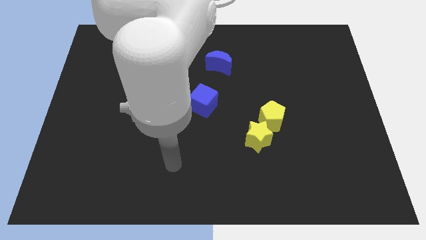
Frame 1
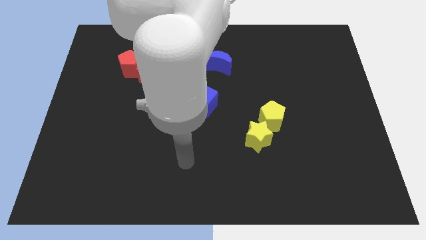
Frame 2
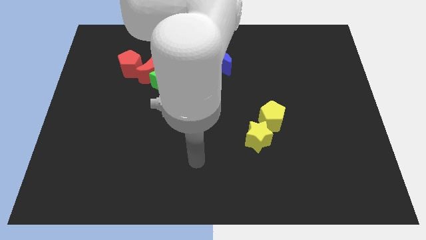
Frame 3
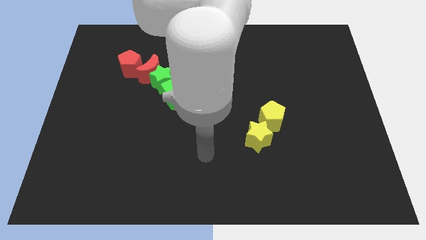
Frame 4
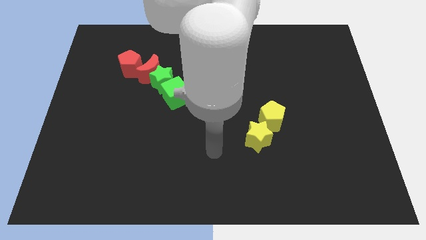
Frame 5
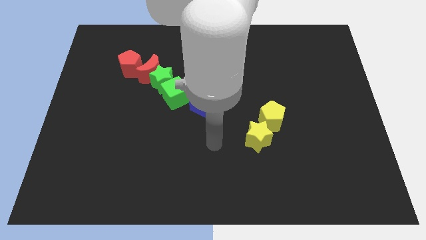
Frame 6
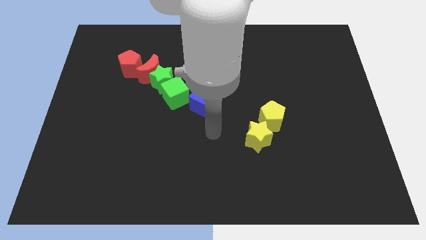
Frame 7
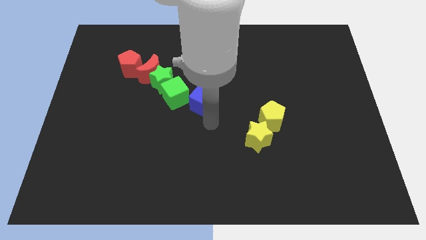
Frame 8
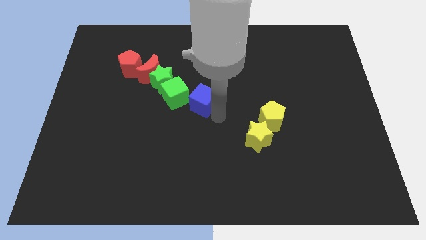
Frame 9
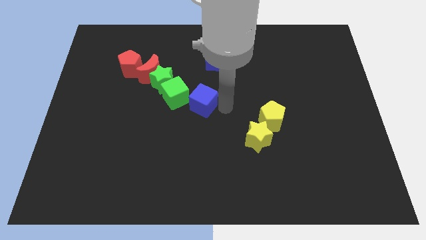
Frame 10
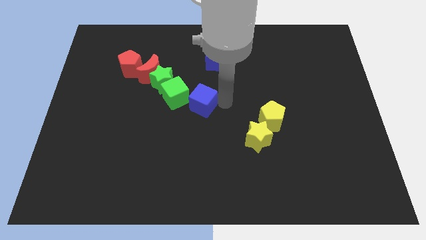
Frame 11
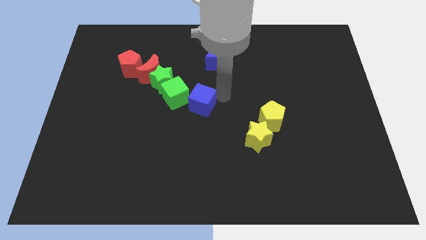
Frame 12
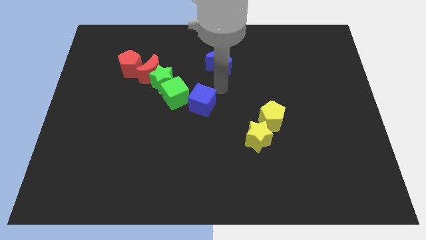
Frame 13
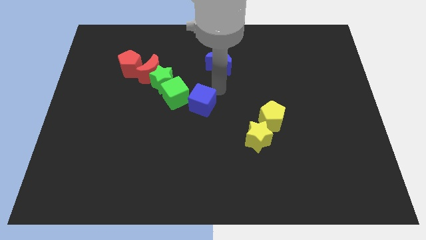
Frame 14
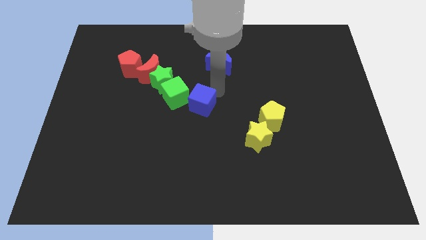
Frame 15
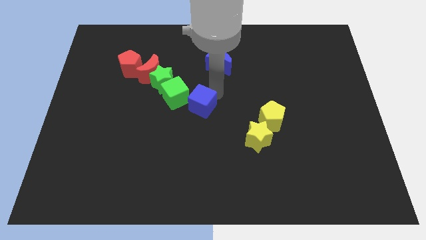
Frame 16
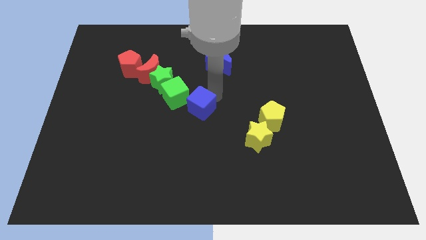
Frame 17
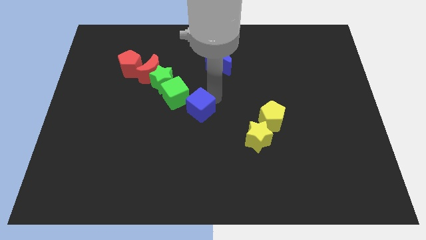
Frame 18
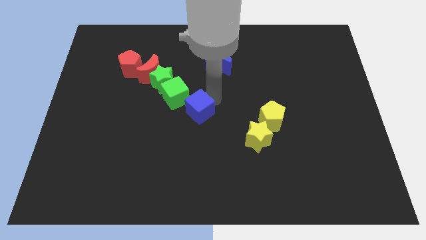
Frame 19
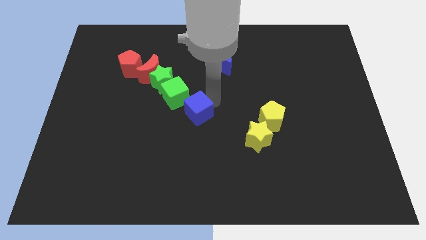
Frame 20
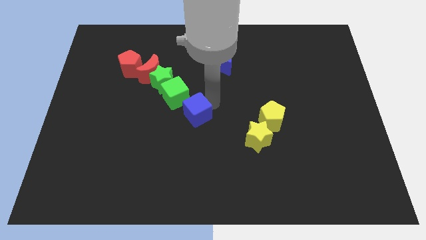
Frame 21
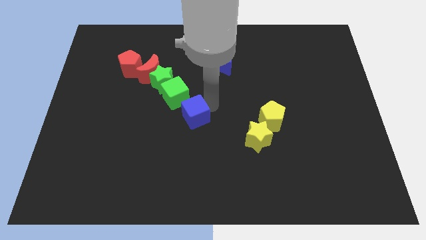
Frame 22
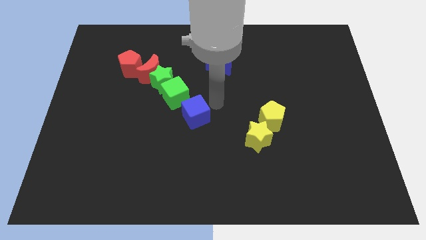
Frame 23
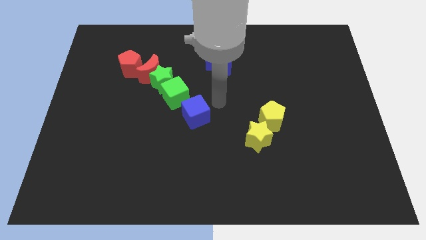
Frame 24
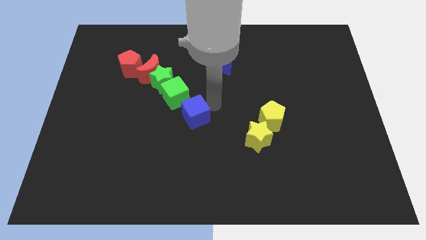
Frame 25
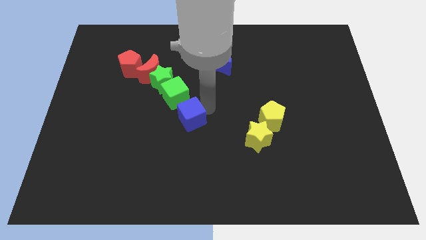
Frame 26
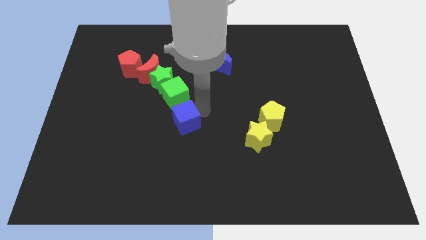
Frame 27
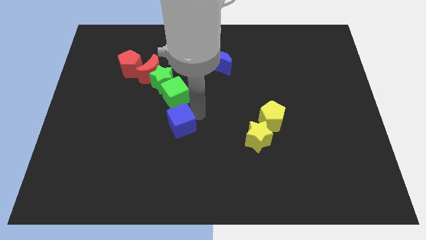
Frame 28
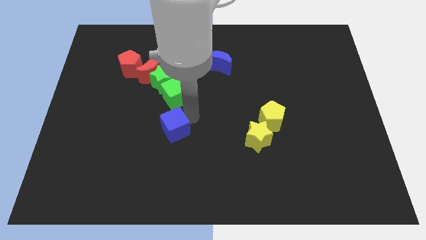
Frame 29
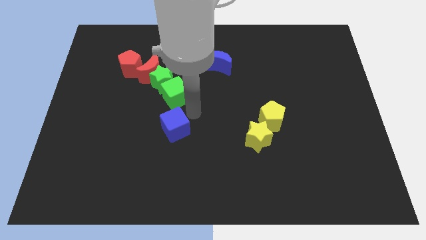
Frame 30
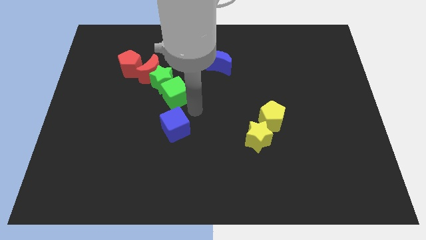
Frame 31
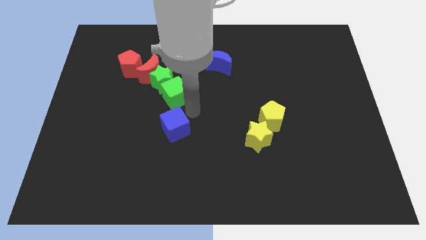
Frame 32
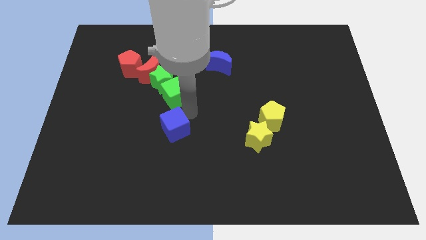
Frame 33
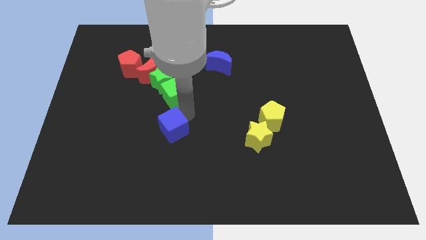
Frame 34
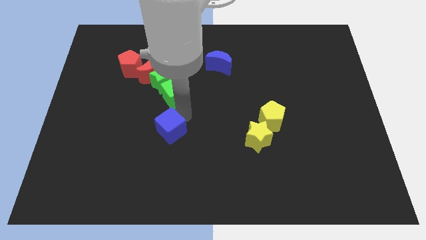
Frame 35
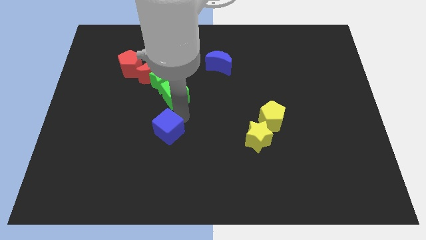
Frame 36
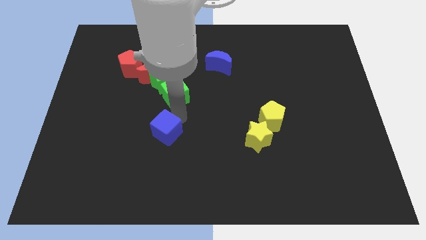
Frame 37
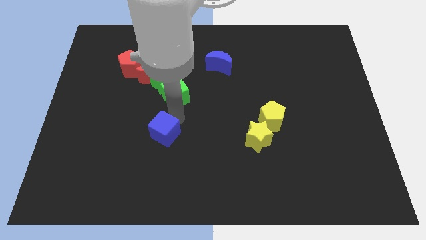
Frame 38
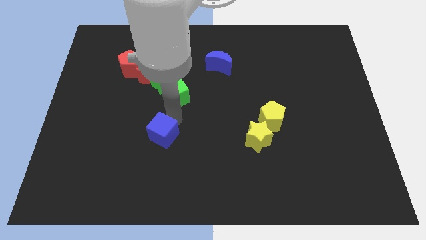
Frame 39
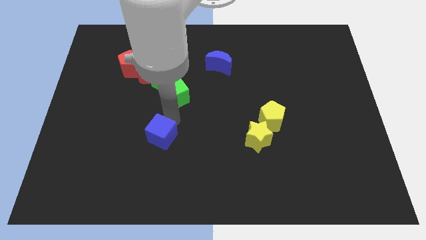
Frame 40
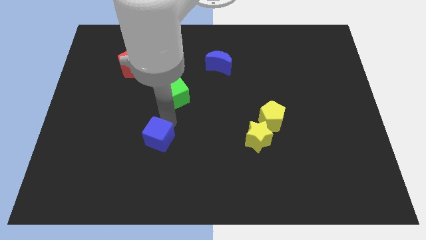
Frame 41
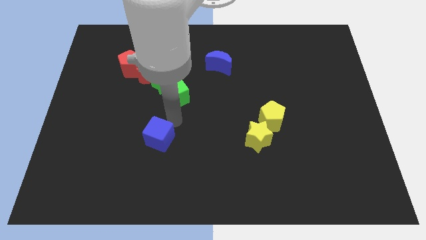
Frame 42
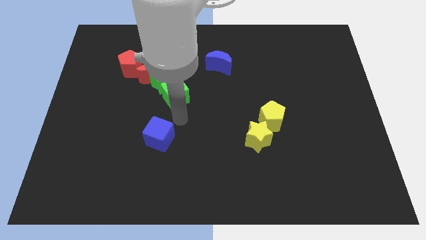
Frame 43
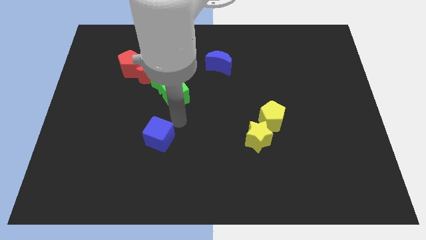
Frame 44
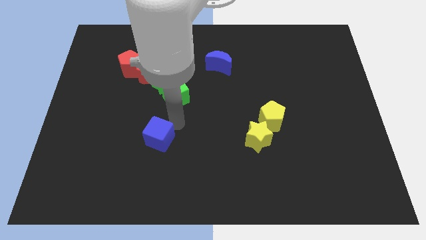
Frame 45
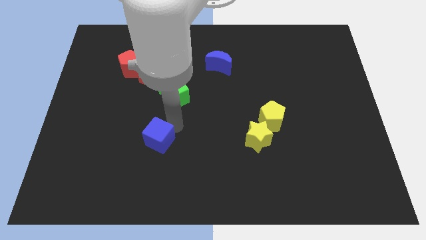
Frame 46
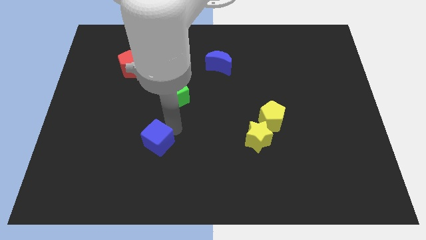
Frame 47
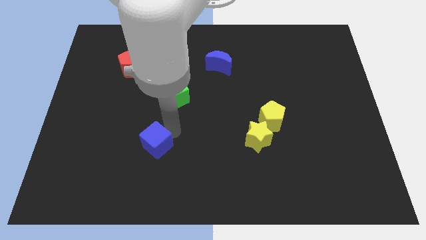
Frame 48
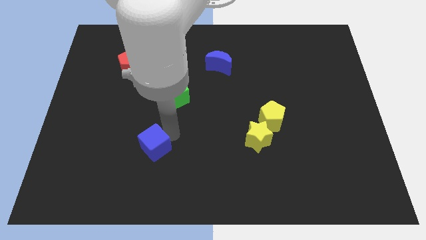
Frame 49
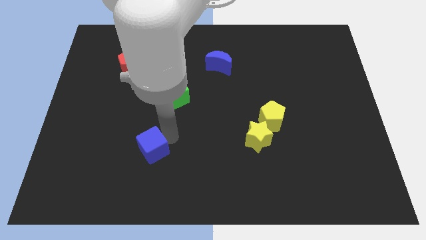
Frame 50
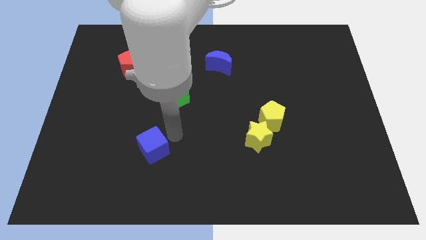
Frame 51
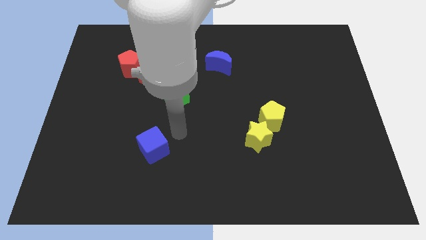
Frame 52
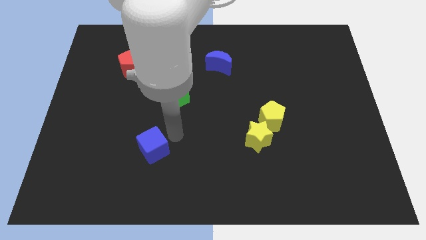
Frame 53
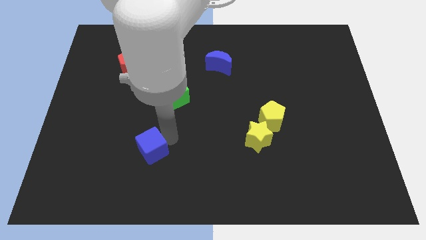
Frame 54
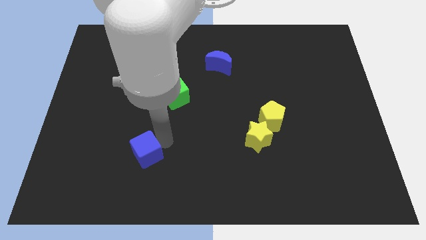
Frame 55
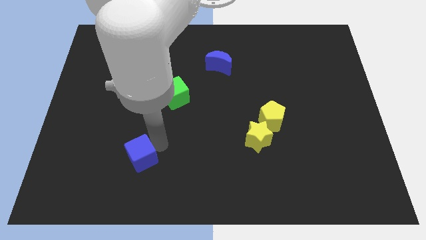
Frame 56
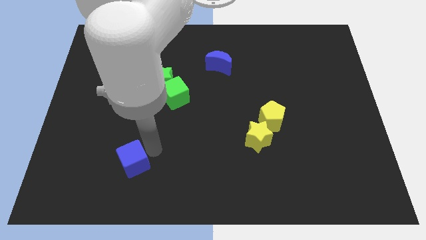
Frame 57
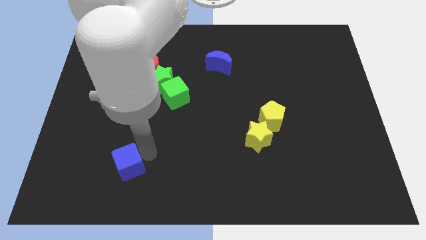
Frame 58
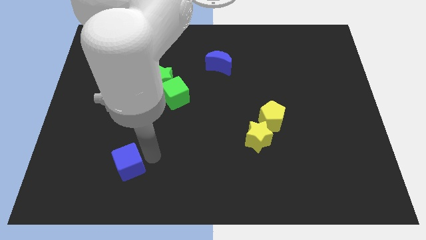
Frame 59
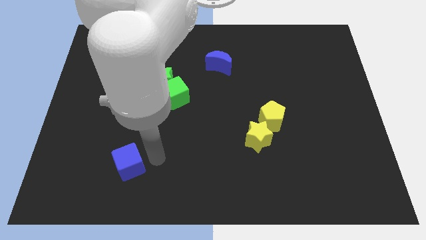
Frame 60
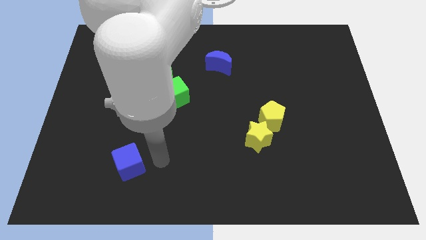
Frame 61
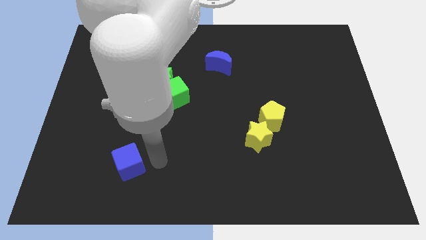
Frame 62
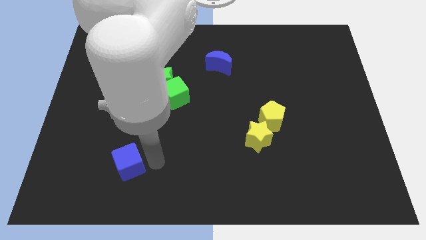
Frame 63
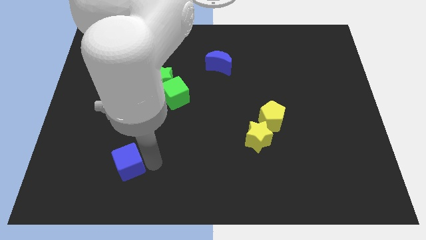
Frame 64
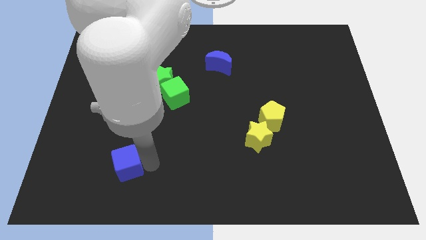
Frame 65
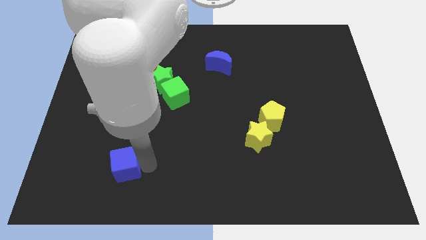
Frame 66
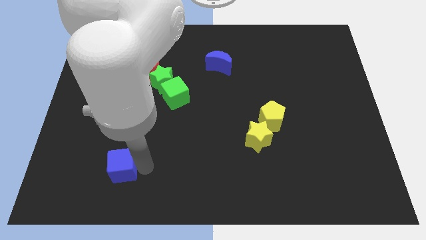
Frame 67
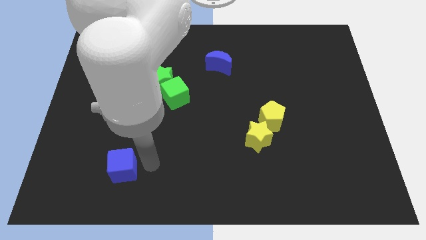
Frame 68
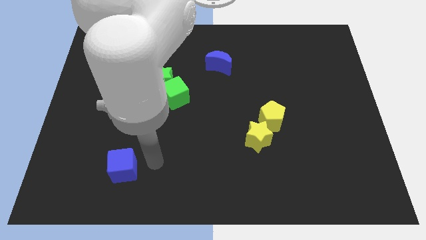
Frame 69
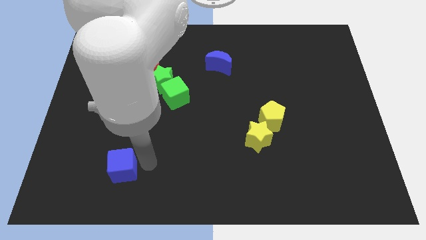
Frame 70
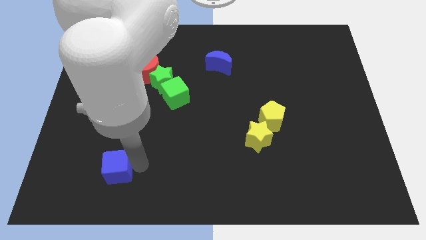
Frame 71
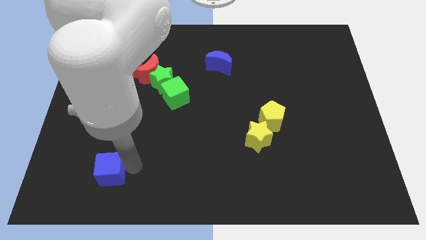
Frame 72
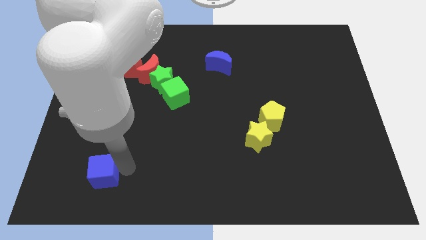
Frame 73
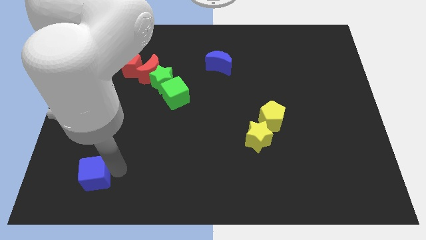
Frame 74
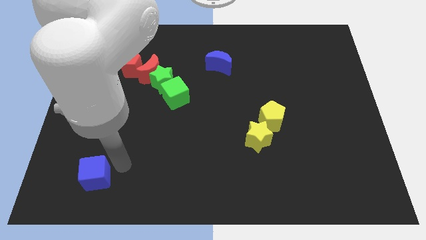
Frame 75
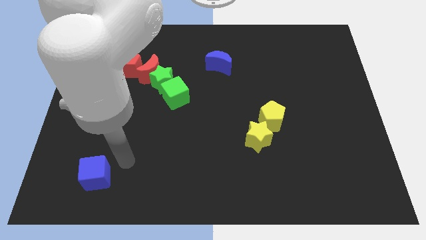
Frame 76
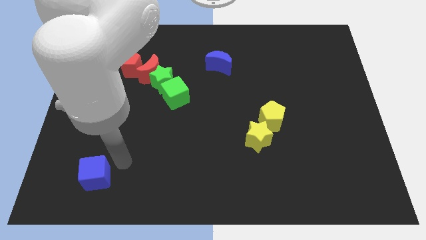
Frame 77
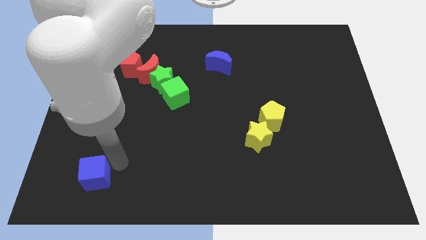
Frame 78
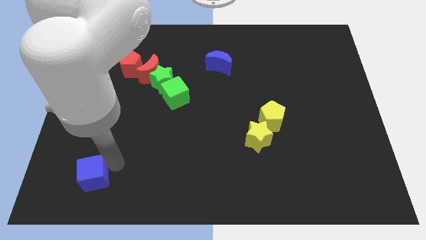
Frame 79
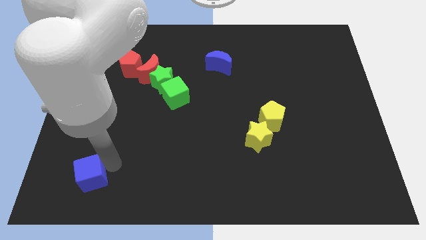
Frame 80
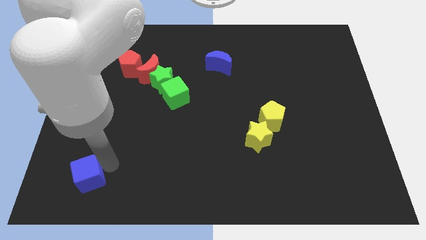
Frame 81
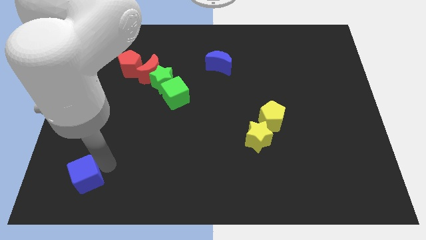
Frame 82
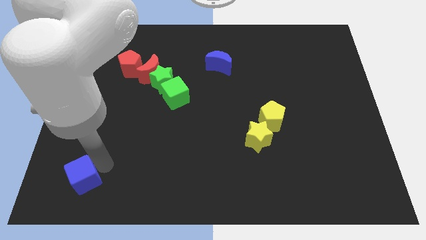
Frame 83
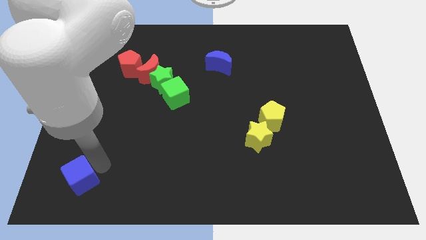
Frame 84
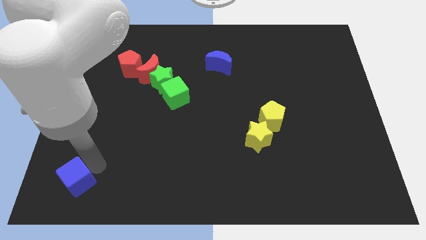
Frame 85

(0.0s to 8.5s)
slide the blue cube to the bottom left of the board
